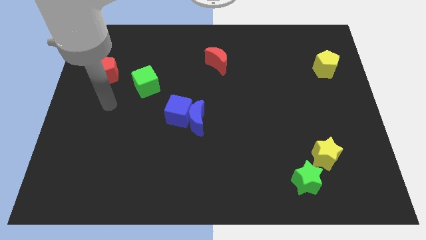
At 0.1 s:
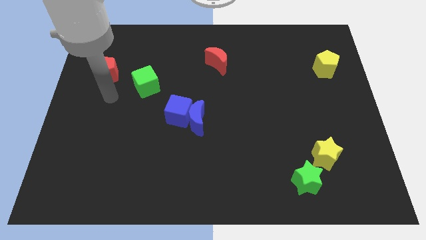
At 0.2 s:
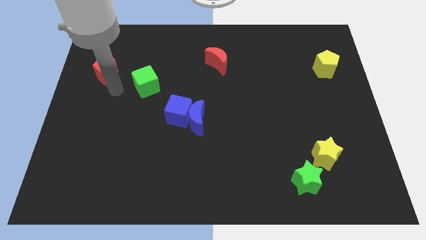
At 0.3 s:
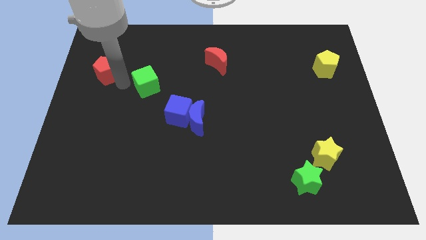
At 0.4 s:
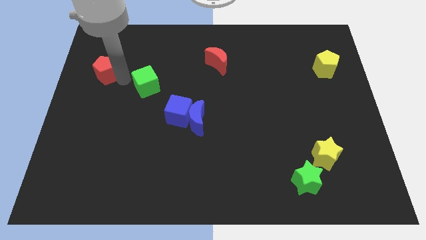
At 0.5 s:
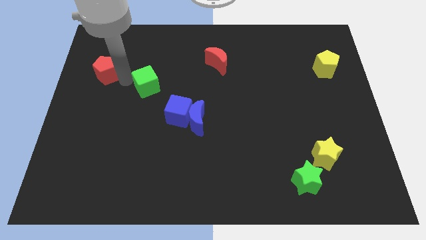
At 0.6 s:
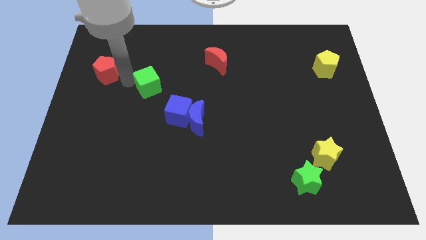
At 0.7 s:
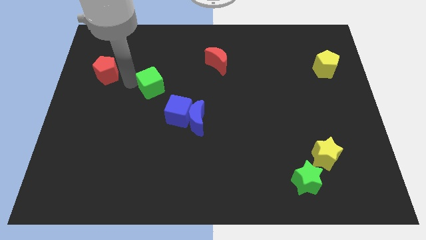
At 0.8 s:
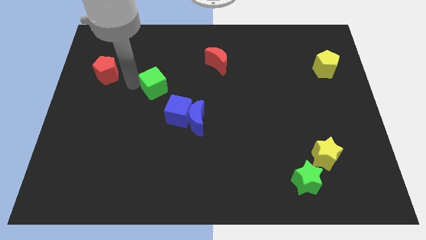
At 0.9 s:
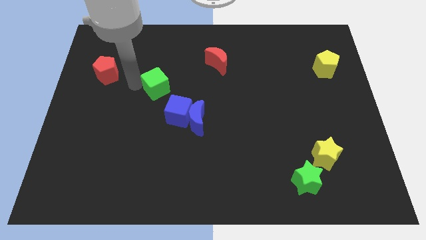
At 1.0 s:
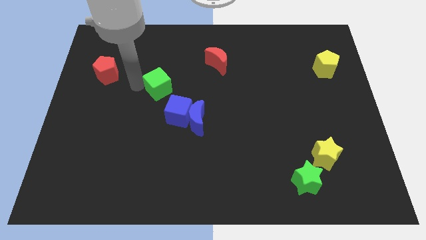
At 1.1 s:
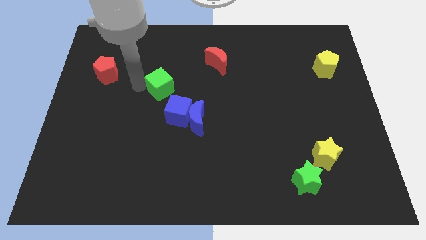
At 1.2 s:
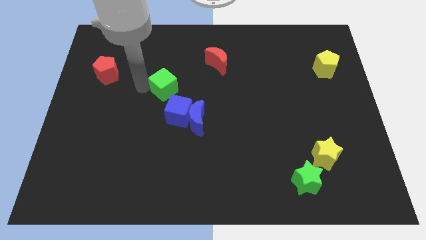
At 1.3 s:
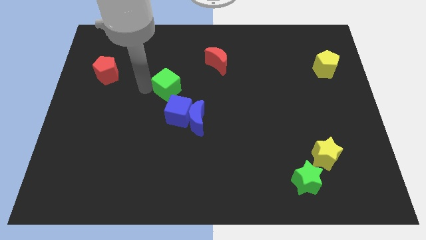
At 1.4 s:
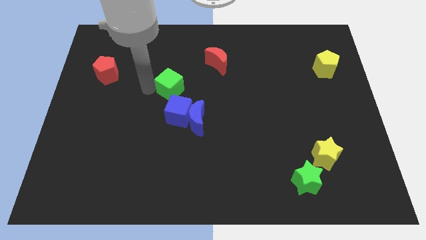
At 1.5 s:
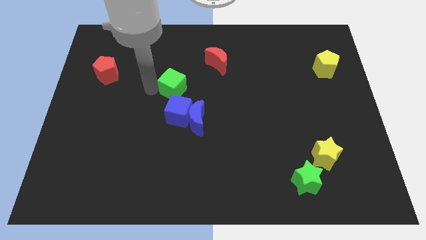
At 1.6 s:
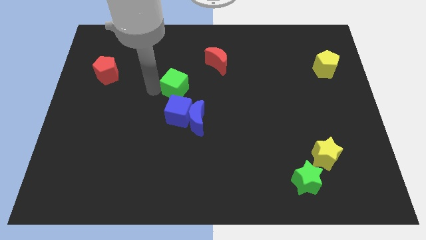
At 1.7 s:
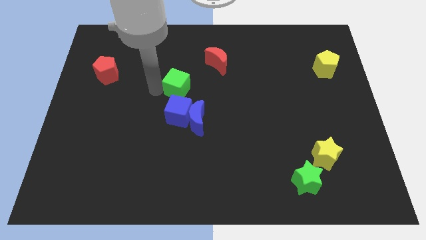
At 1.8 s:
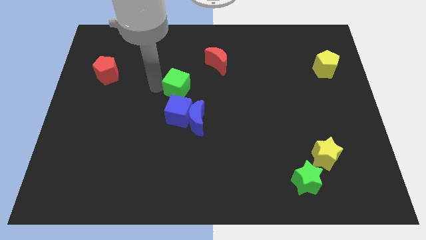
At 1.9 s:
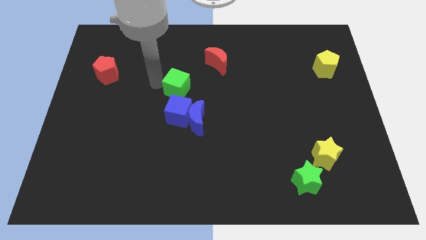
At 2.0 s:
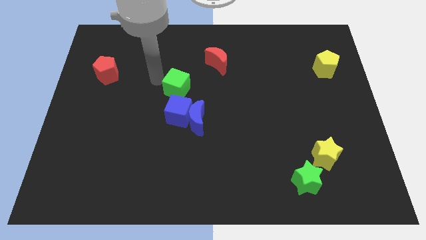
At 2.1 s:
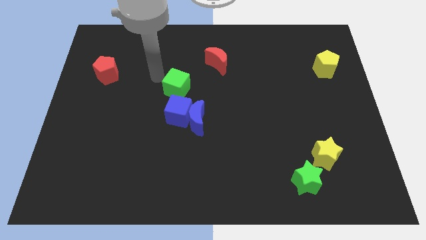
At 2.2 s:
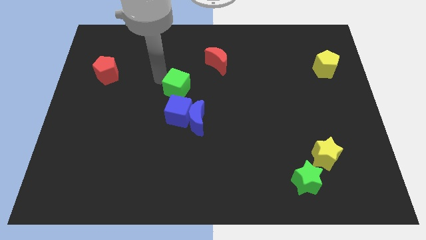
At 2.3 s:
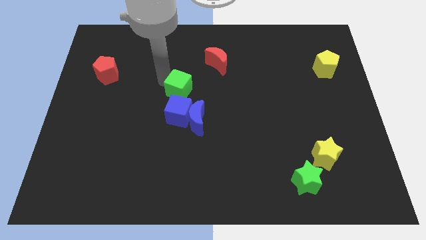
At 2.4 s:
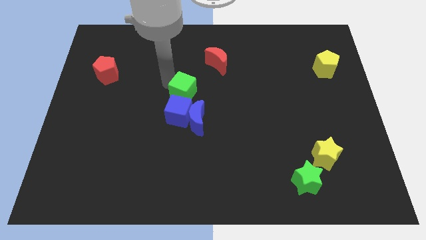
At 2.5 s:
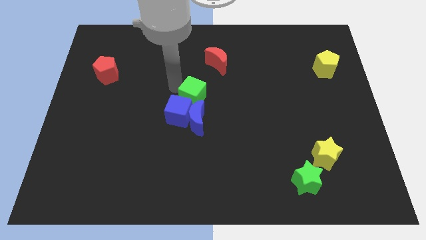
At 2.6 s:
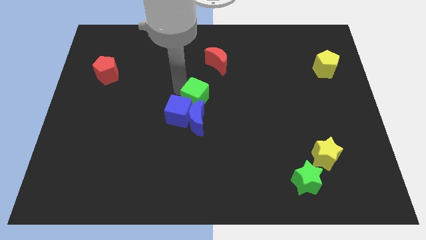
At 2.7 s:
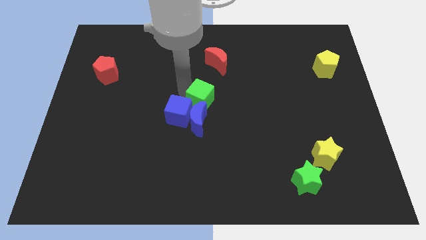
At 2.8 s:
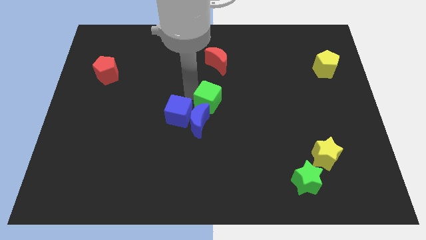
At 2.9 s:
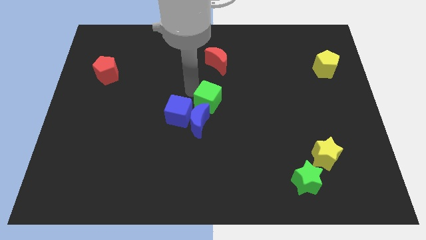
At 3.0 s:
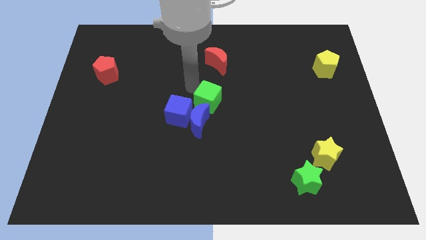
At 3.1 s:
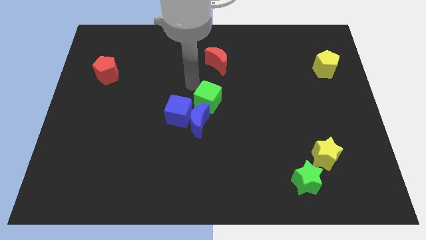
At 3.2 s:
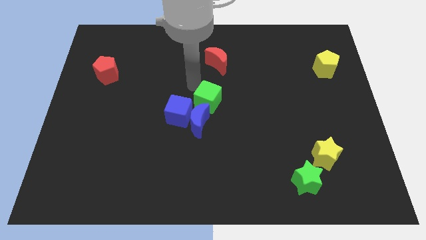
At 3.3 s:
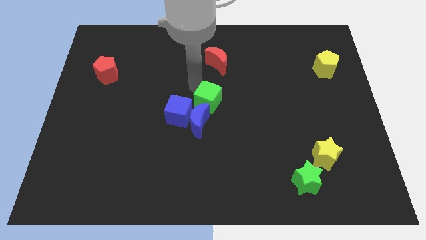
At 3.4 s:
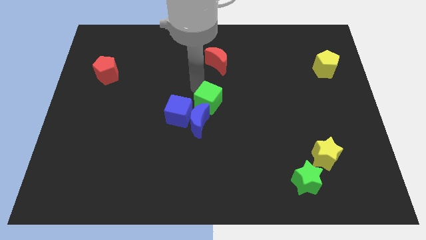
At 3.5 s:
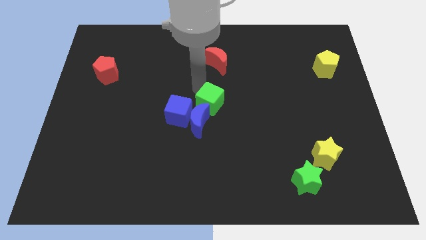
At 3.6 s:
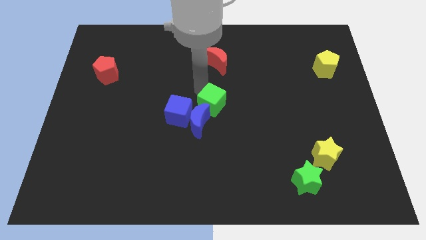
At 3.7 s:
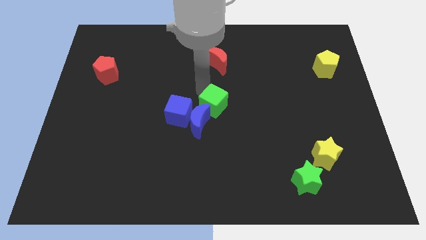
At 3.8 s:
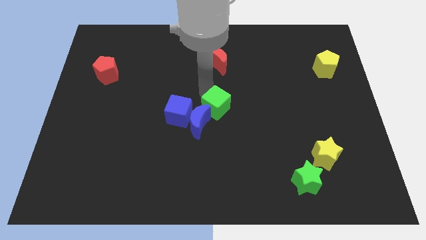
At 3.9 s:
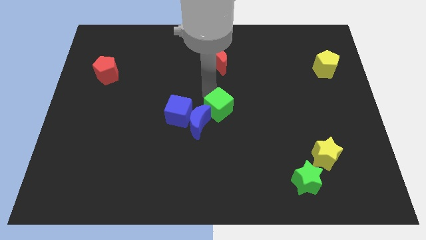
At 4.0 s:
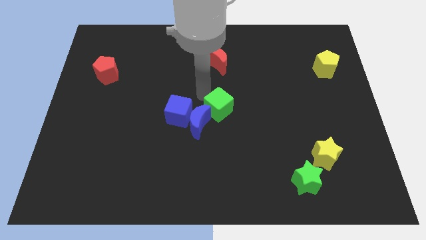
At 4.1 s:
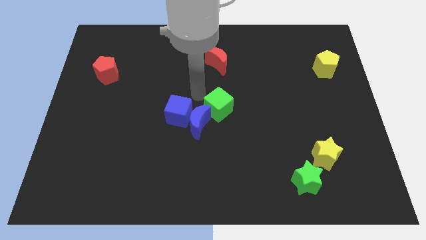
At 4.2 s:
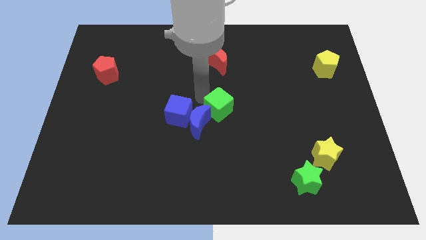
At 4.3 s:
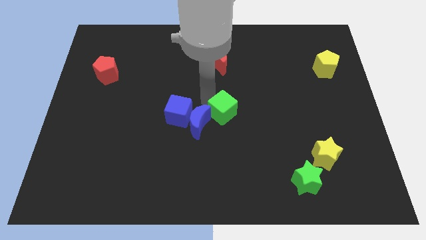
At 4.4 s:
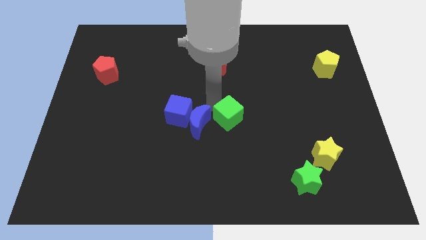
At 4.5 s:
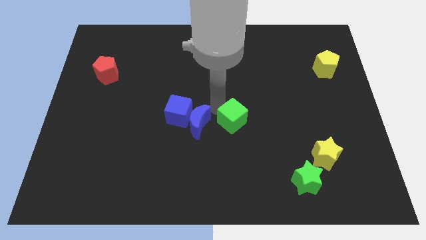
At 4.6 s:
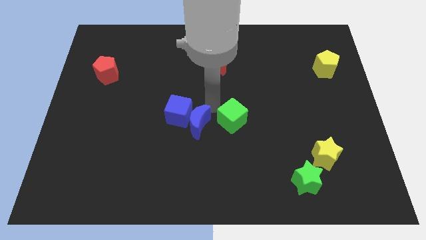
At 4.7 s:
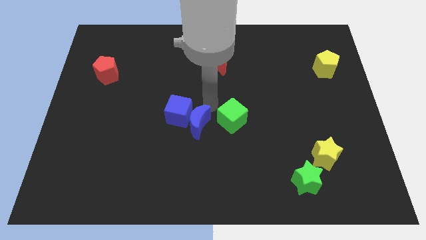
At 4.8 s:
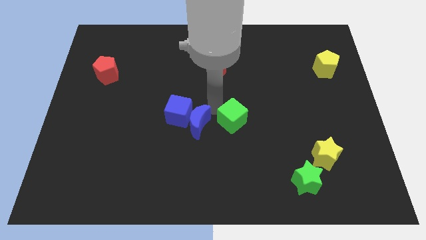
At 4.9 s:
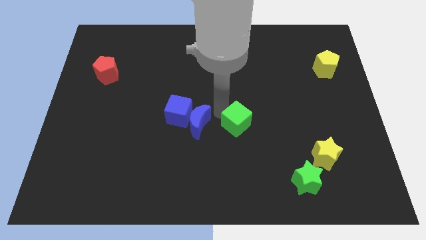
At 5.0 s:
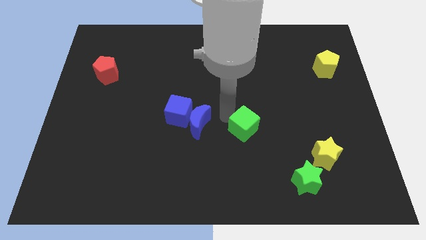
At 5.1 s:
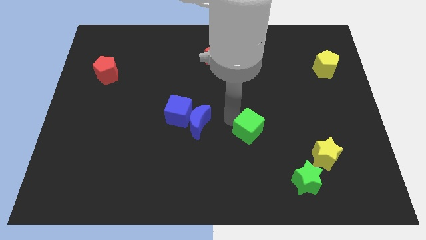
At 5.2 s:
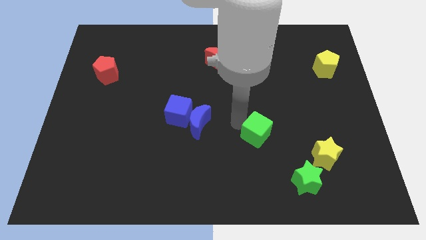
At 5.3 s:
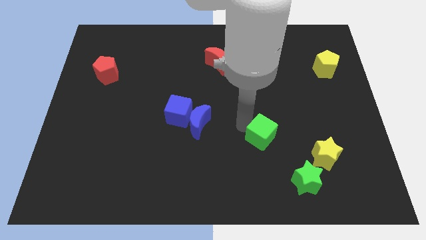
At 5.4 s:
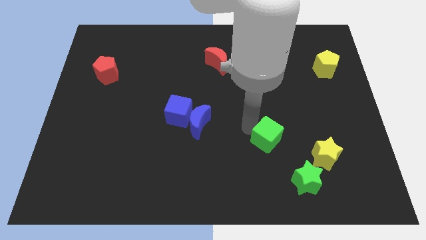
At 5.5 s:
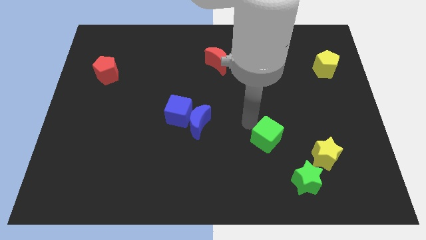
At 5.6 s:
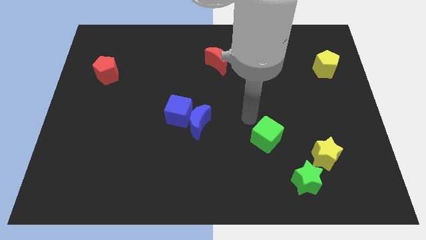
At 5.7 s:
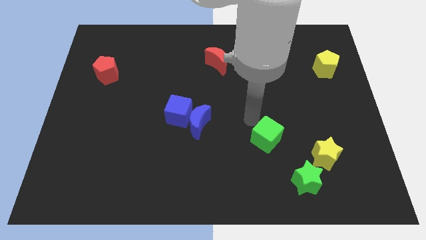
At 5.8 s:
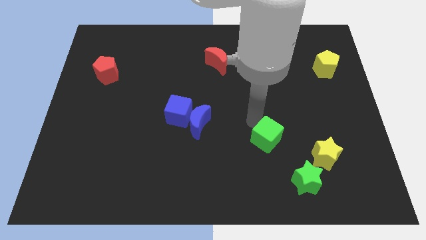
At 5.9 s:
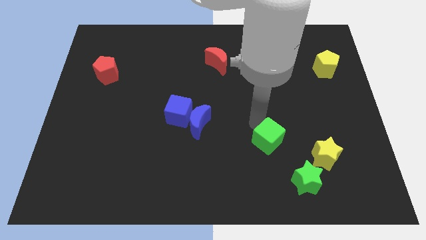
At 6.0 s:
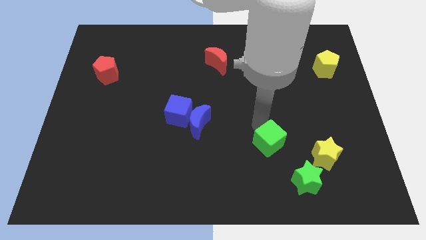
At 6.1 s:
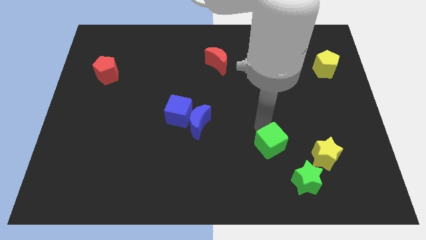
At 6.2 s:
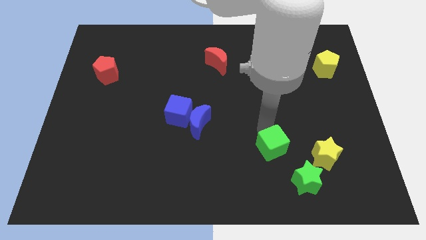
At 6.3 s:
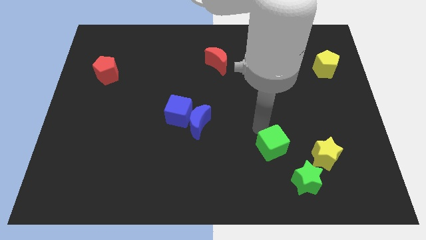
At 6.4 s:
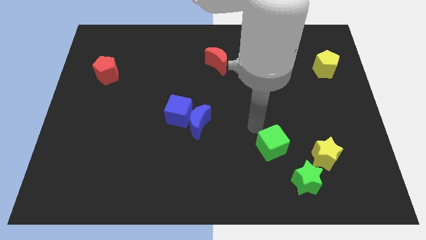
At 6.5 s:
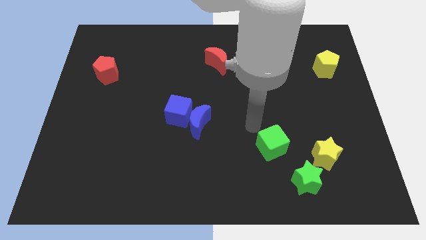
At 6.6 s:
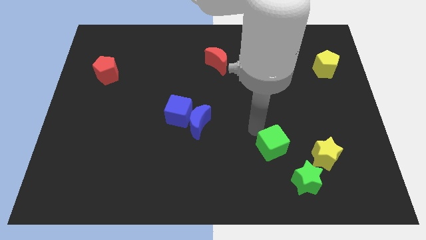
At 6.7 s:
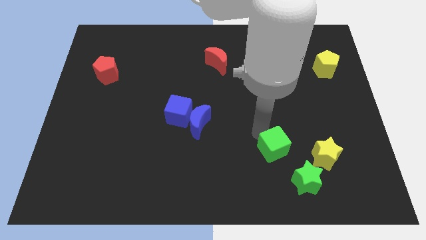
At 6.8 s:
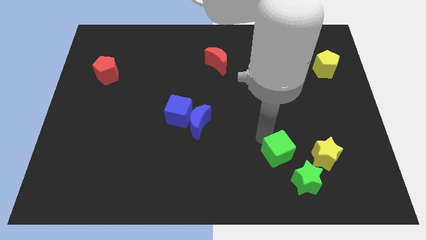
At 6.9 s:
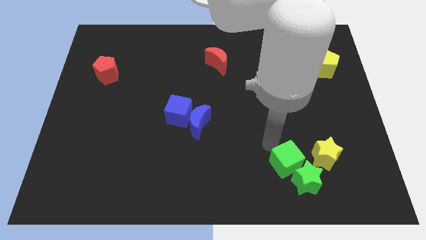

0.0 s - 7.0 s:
push the green cube next to the green star

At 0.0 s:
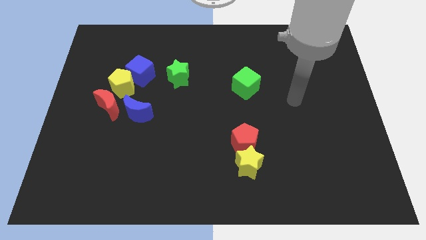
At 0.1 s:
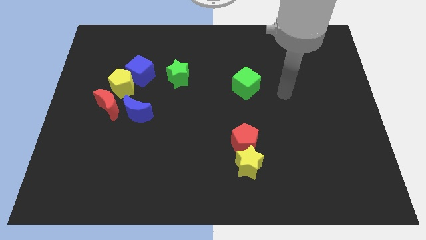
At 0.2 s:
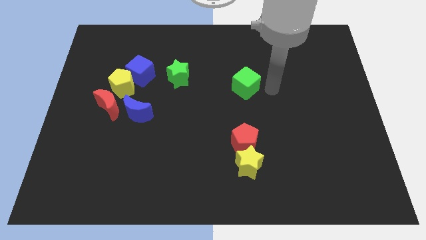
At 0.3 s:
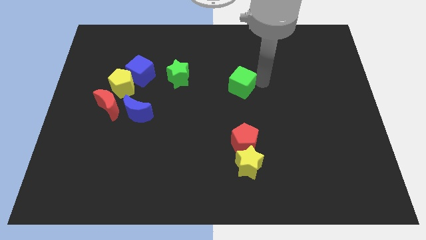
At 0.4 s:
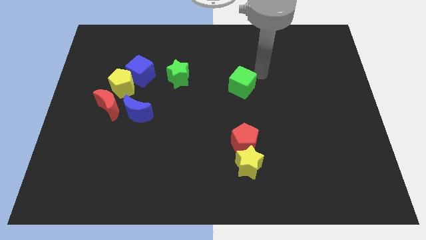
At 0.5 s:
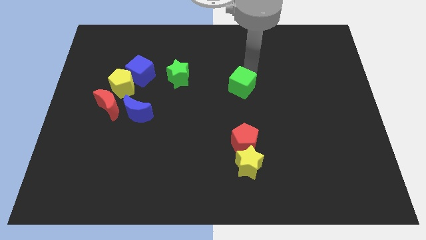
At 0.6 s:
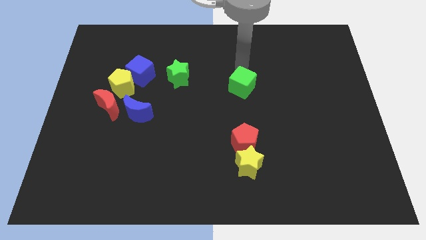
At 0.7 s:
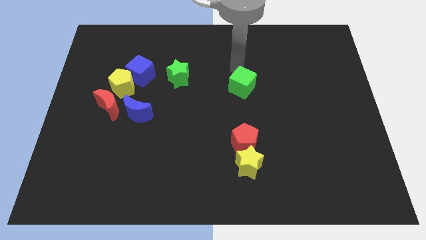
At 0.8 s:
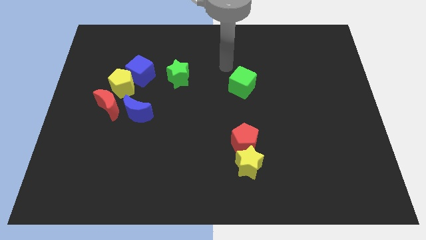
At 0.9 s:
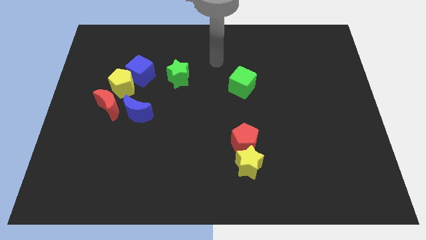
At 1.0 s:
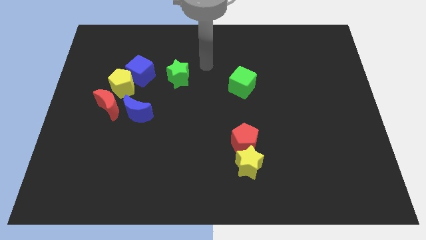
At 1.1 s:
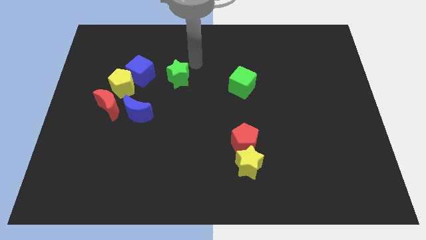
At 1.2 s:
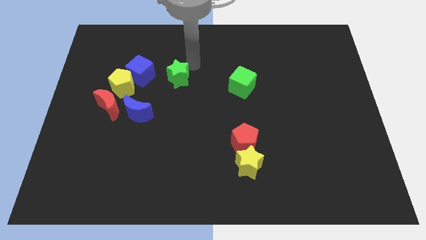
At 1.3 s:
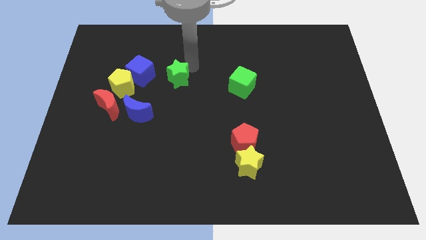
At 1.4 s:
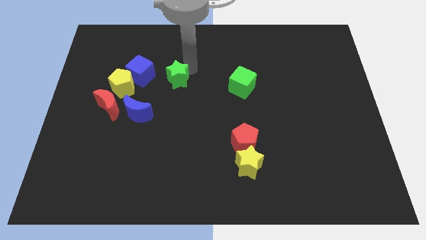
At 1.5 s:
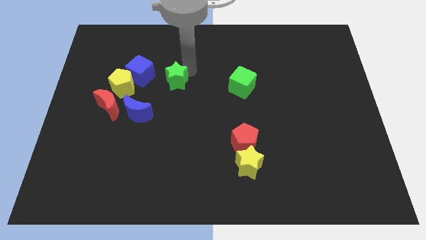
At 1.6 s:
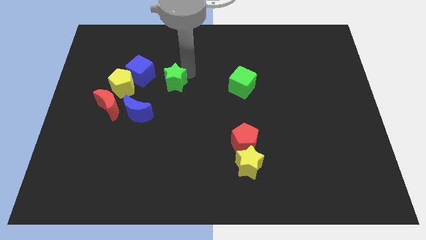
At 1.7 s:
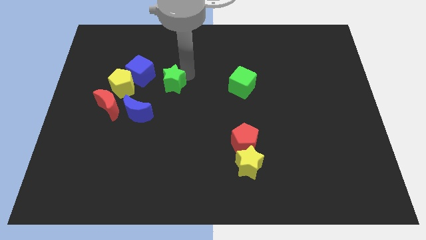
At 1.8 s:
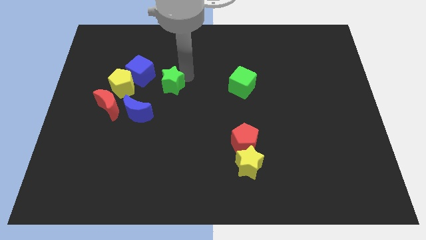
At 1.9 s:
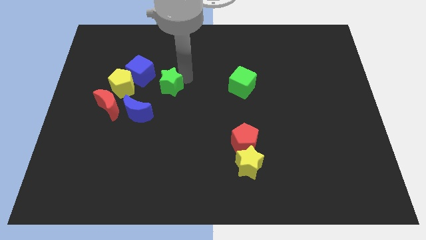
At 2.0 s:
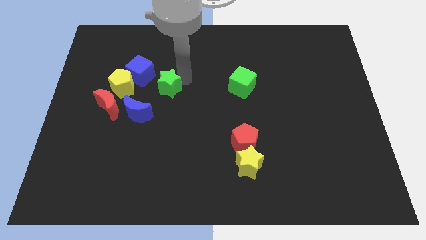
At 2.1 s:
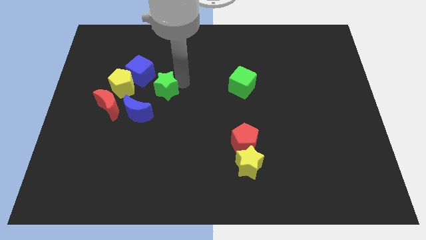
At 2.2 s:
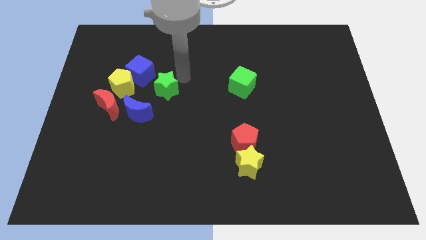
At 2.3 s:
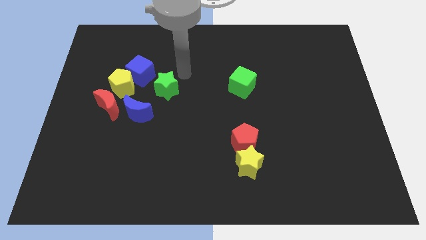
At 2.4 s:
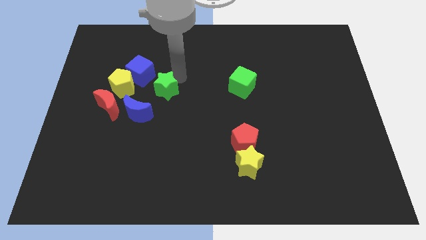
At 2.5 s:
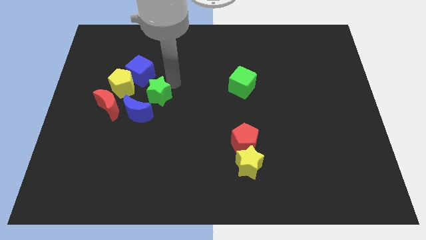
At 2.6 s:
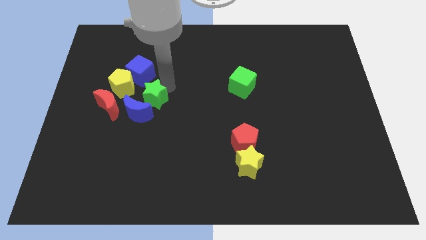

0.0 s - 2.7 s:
push the green star towards the blue moon
